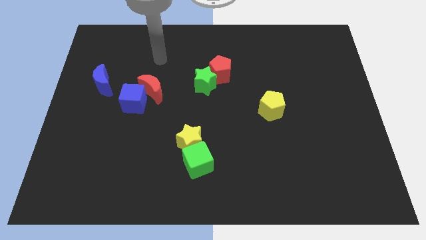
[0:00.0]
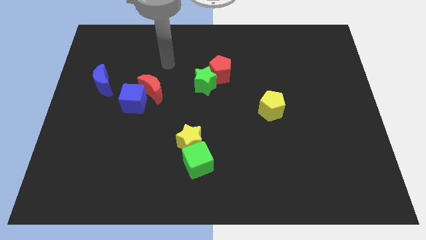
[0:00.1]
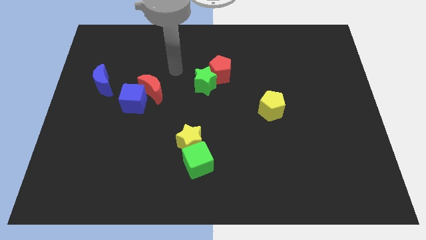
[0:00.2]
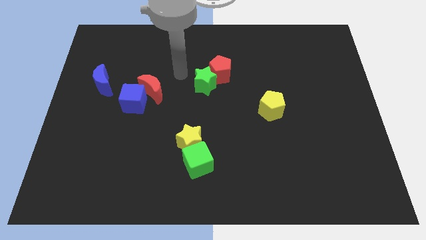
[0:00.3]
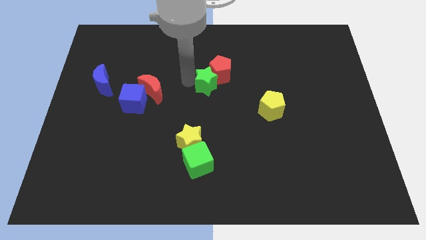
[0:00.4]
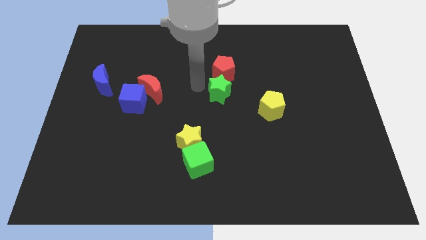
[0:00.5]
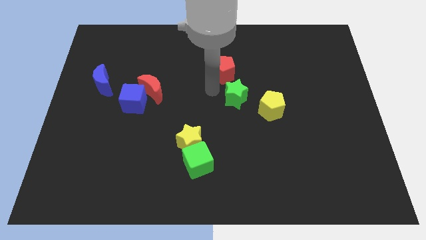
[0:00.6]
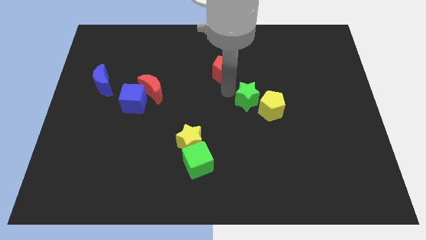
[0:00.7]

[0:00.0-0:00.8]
separate the red pentagon from the green star

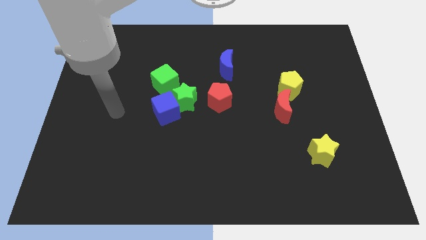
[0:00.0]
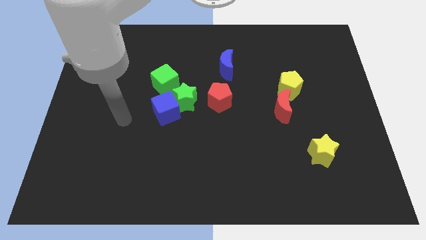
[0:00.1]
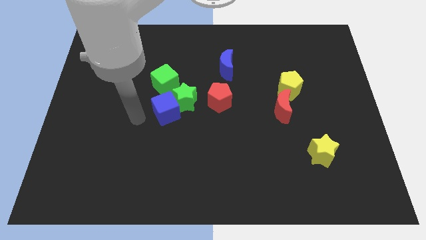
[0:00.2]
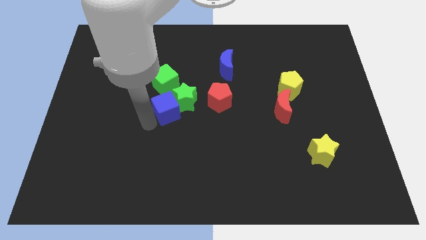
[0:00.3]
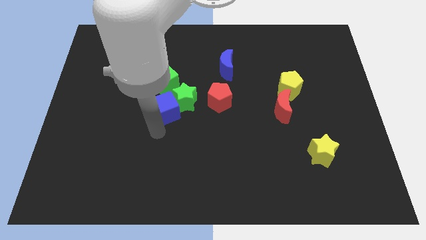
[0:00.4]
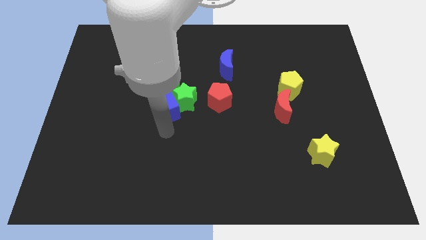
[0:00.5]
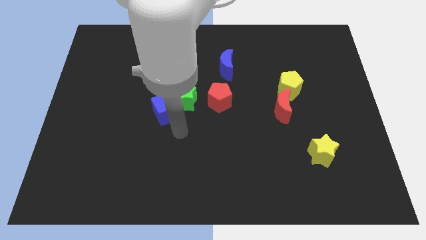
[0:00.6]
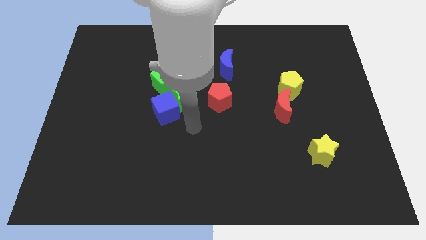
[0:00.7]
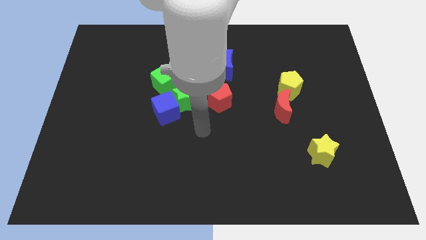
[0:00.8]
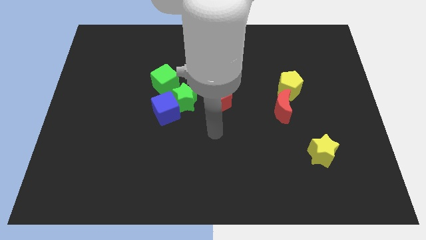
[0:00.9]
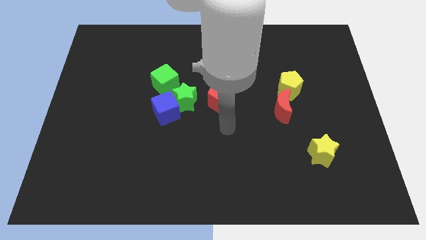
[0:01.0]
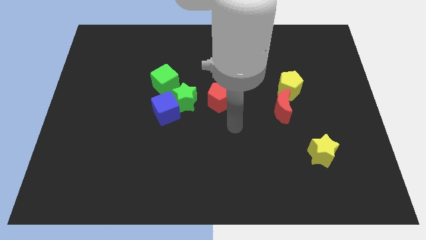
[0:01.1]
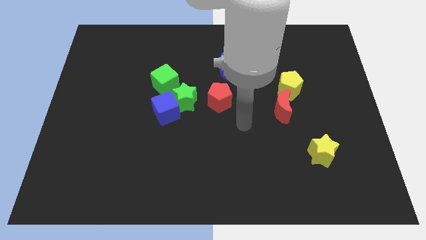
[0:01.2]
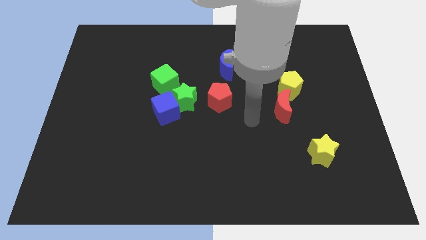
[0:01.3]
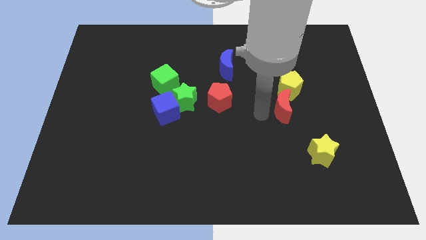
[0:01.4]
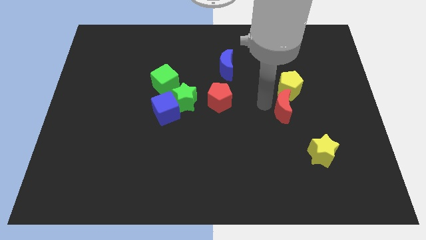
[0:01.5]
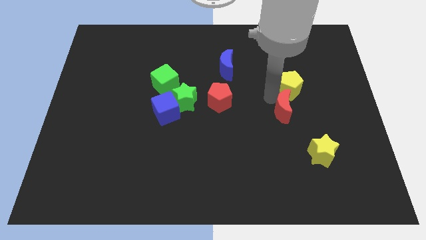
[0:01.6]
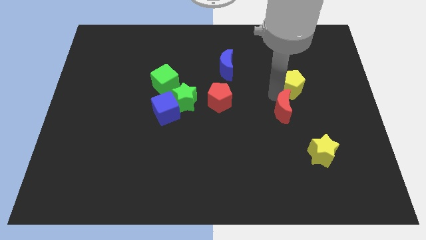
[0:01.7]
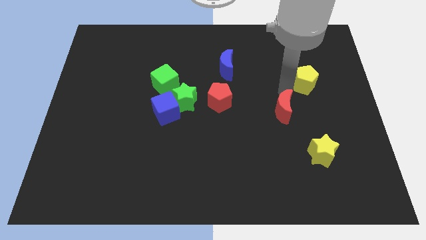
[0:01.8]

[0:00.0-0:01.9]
pull the red moon apart from the yellow pentagon

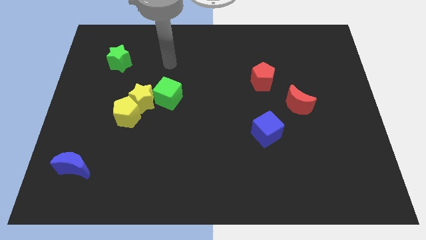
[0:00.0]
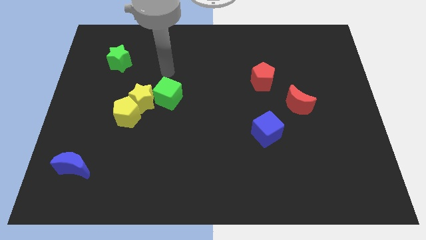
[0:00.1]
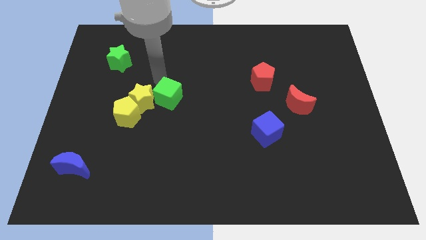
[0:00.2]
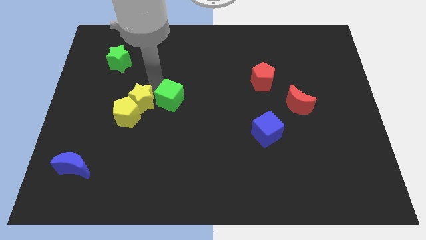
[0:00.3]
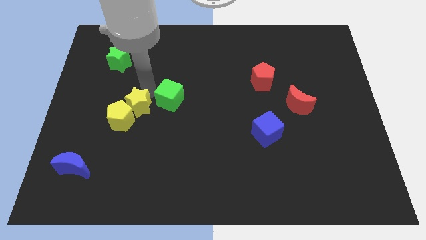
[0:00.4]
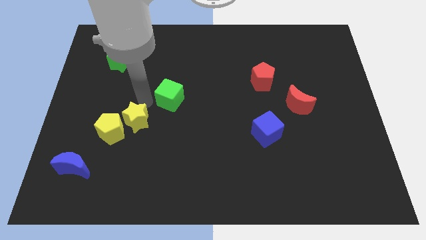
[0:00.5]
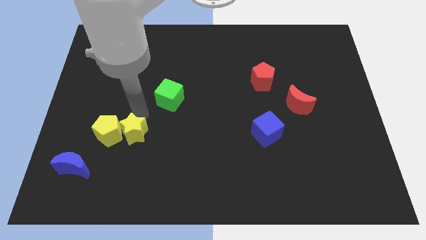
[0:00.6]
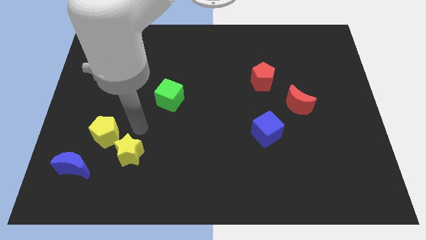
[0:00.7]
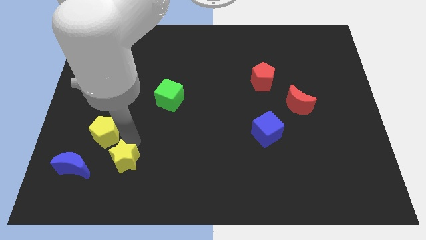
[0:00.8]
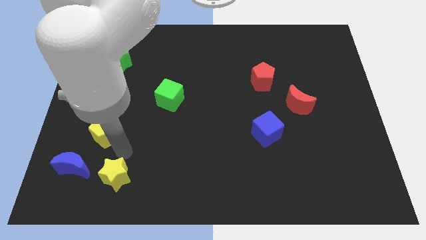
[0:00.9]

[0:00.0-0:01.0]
pull the yellow pentagon apart from the yellow star

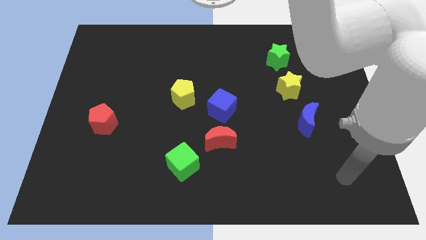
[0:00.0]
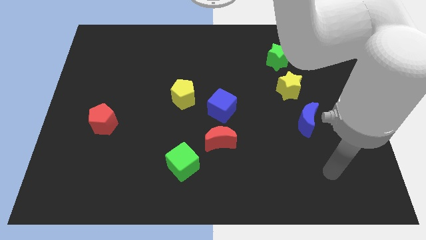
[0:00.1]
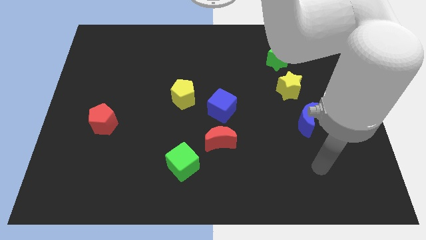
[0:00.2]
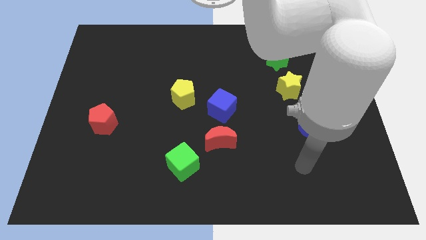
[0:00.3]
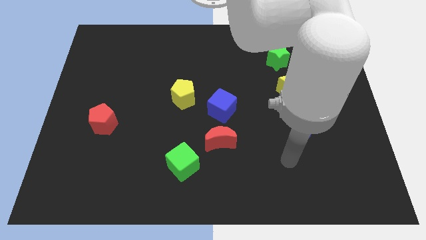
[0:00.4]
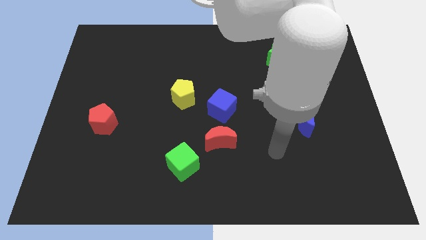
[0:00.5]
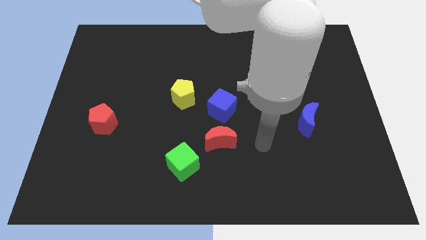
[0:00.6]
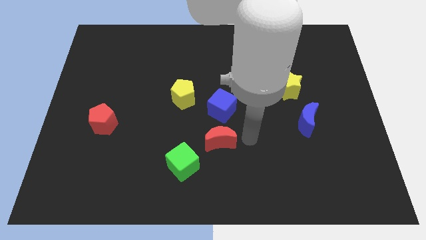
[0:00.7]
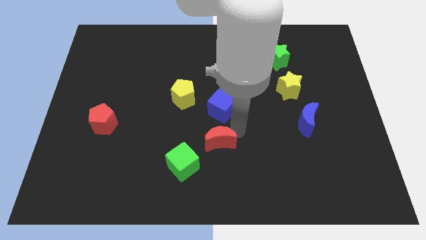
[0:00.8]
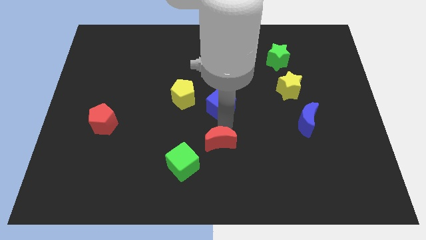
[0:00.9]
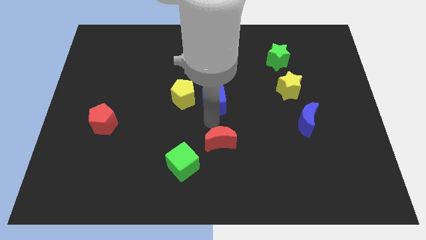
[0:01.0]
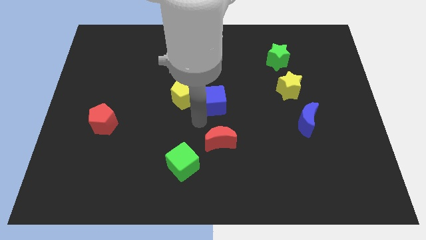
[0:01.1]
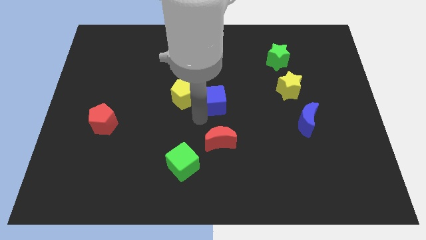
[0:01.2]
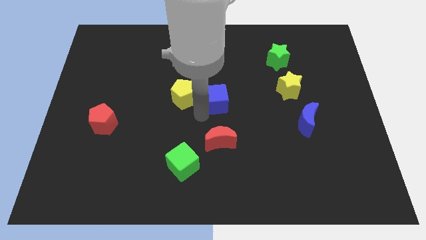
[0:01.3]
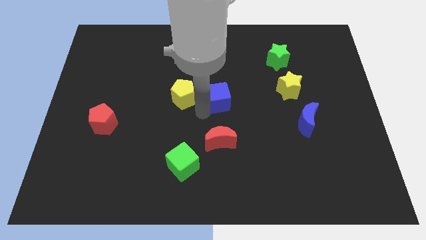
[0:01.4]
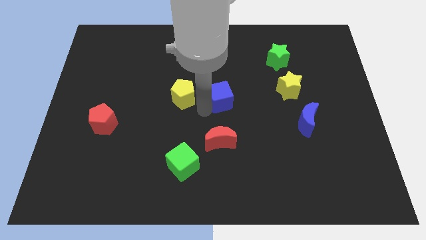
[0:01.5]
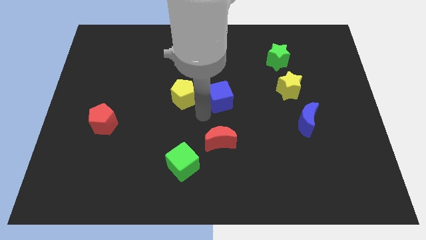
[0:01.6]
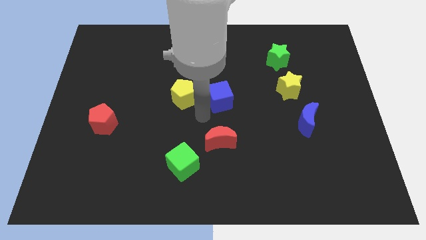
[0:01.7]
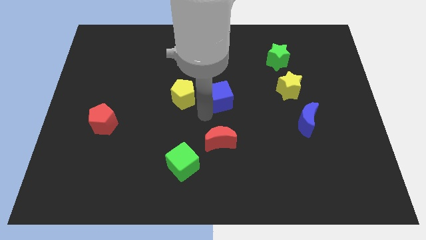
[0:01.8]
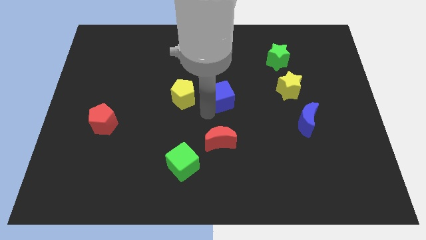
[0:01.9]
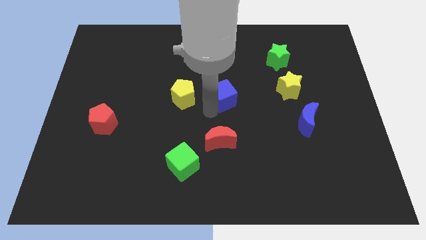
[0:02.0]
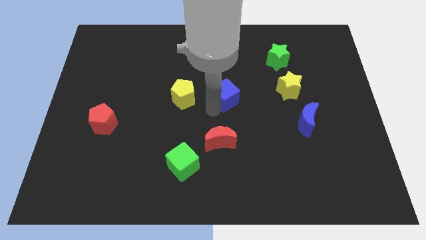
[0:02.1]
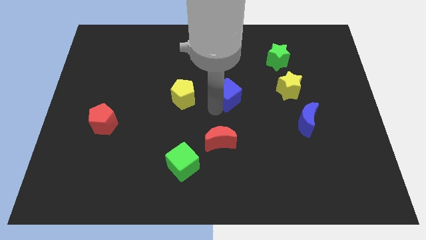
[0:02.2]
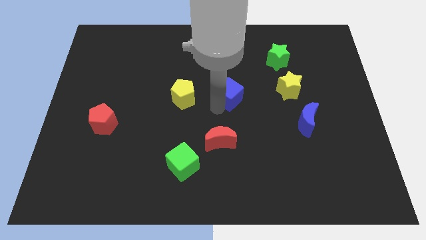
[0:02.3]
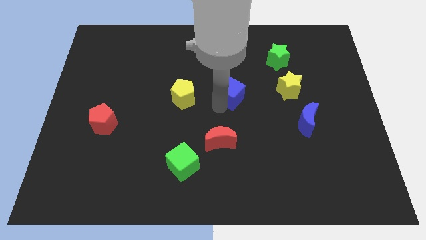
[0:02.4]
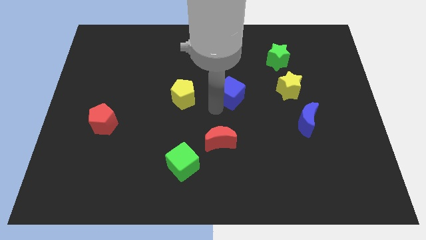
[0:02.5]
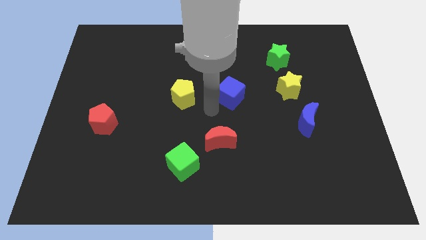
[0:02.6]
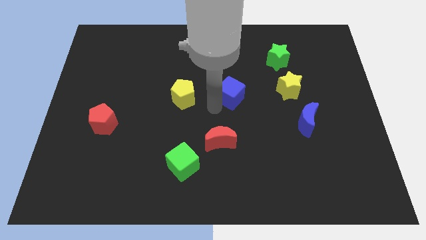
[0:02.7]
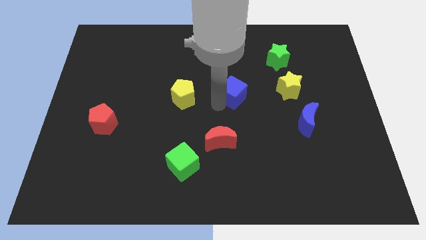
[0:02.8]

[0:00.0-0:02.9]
separate the blue cube from the red moon and yellow pentagon

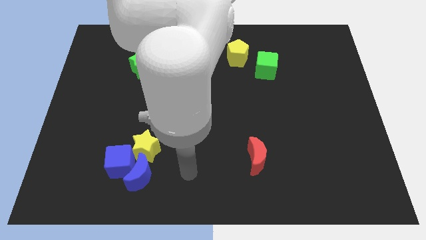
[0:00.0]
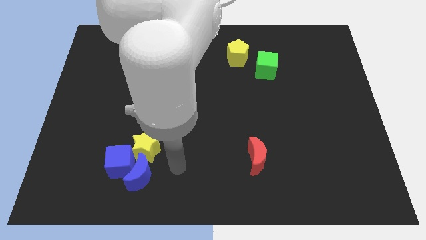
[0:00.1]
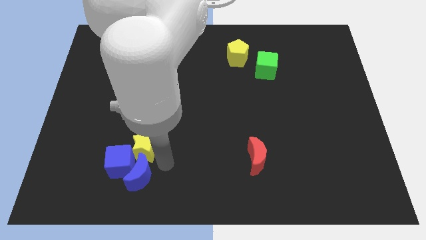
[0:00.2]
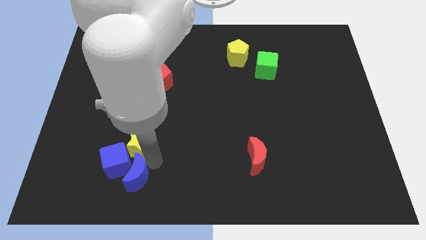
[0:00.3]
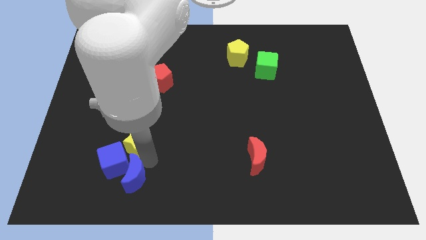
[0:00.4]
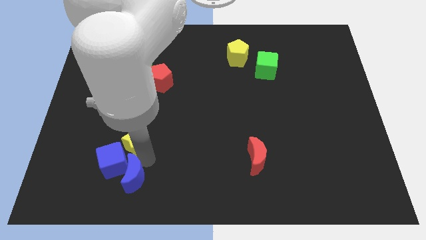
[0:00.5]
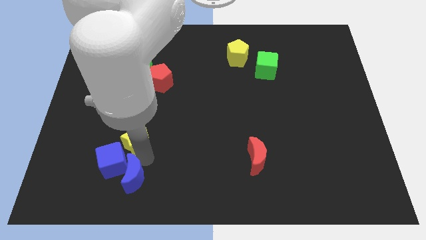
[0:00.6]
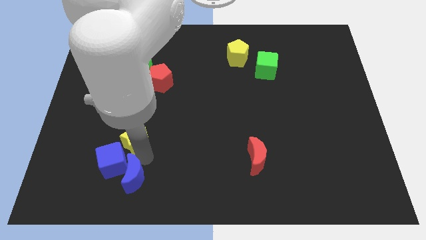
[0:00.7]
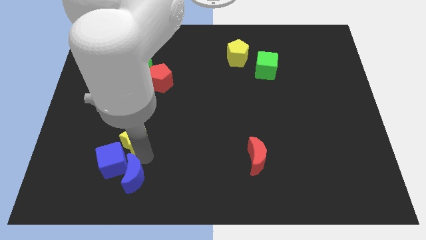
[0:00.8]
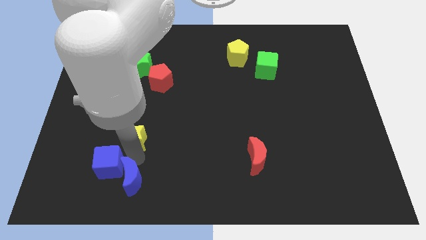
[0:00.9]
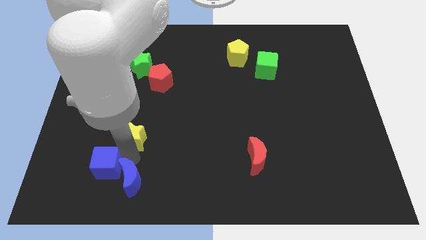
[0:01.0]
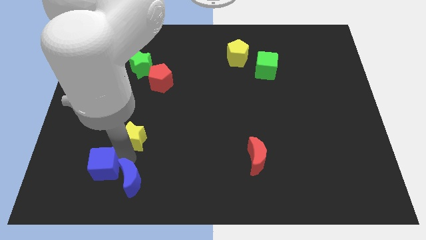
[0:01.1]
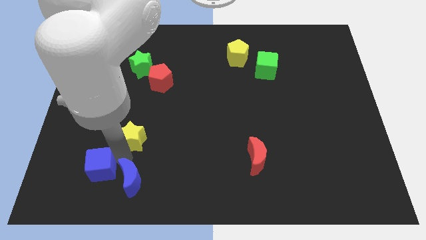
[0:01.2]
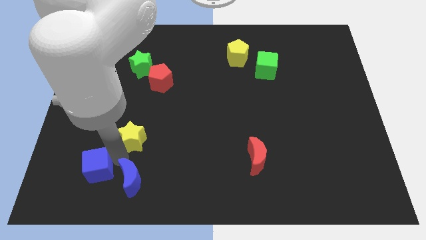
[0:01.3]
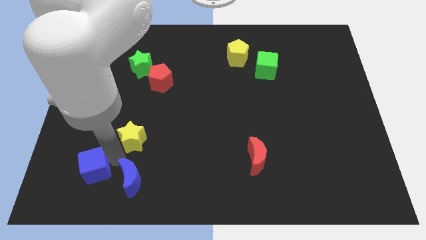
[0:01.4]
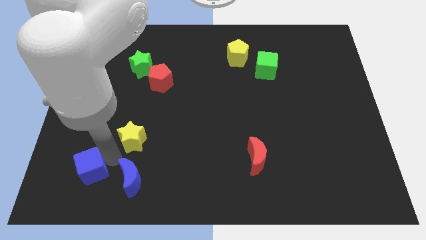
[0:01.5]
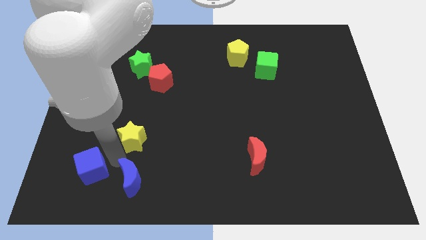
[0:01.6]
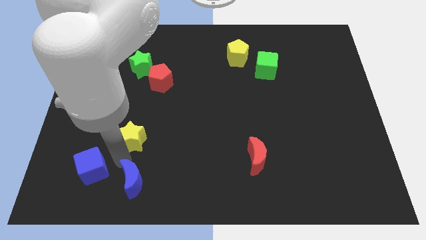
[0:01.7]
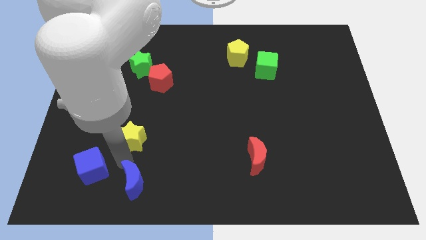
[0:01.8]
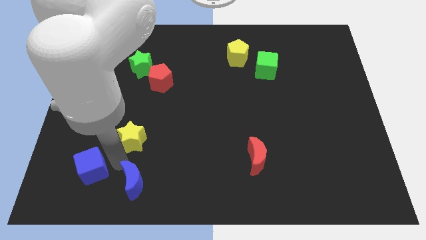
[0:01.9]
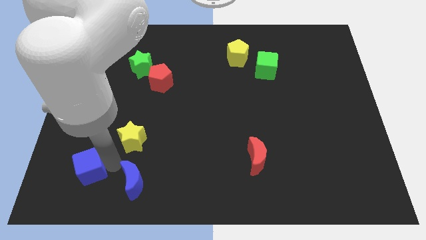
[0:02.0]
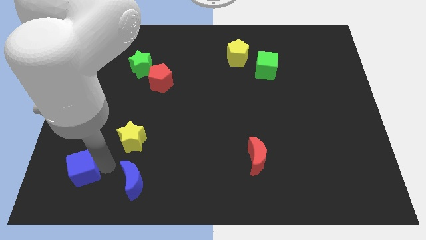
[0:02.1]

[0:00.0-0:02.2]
pull the blue cube apart from the blue moon and yellow star

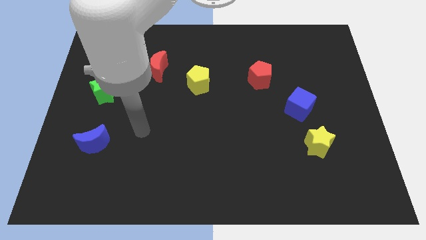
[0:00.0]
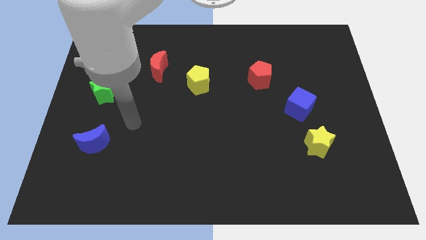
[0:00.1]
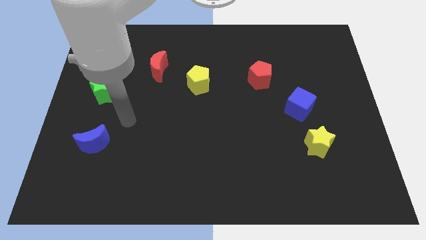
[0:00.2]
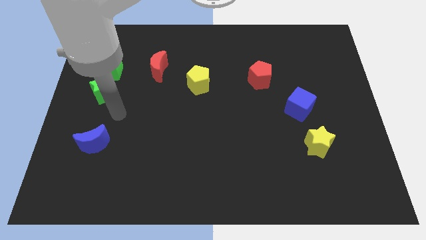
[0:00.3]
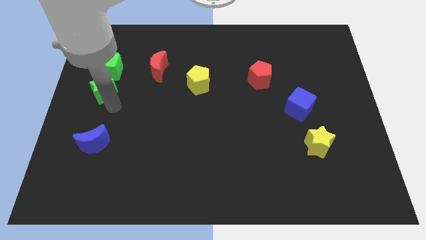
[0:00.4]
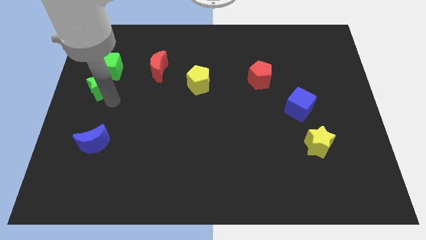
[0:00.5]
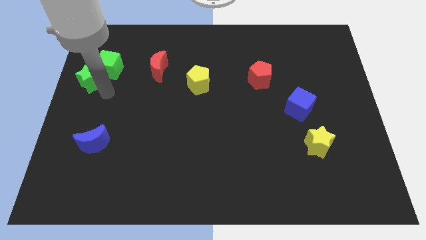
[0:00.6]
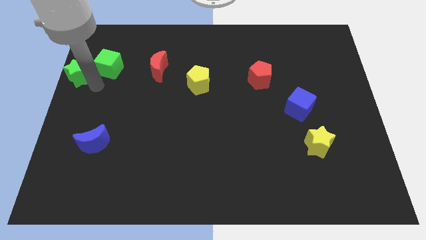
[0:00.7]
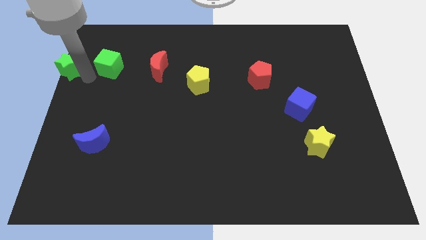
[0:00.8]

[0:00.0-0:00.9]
move the green cube away from the green star
